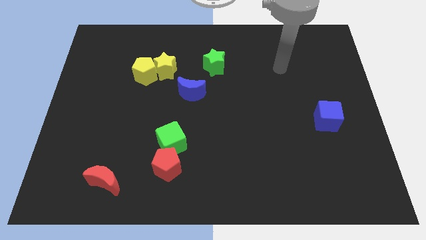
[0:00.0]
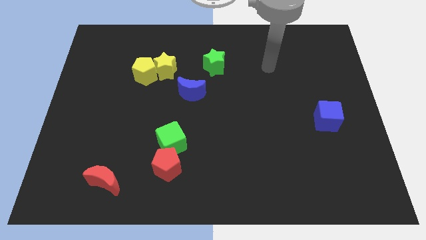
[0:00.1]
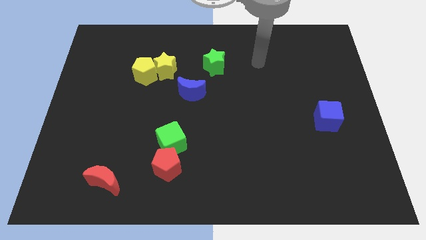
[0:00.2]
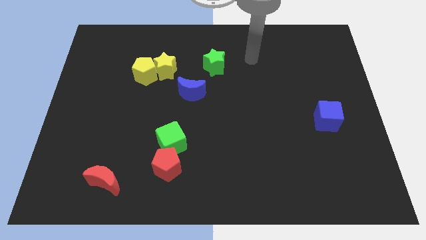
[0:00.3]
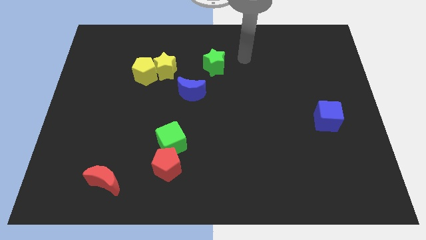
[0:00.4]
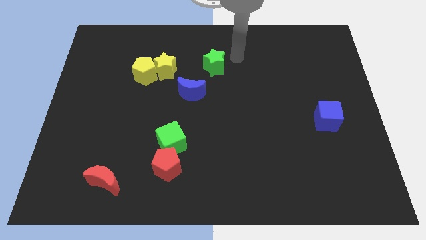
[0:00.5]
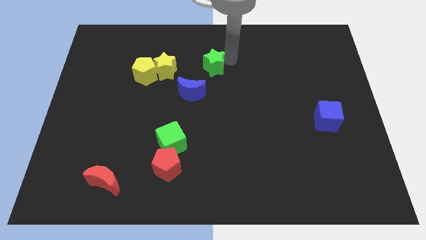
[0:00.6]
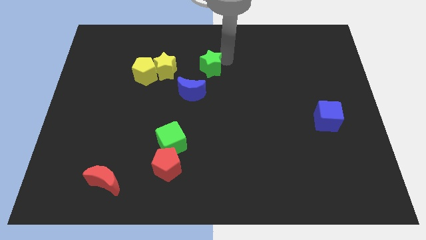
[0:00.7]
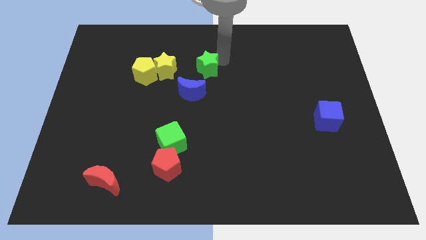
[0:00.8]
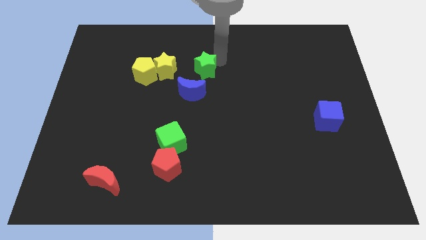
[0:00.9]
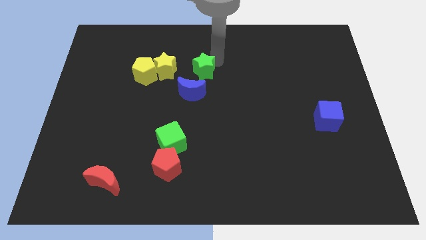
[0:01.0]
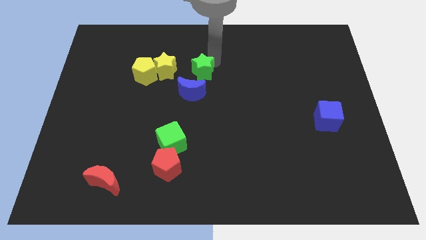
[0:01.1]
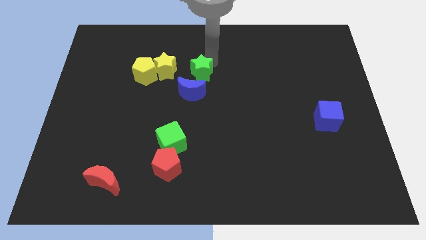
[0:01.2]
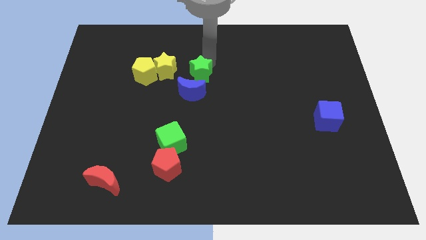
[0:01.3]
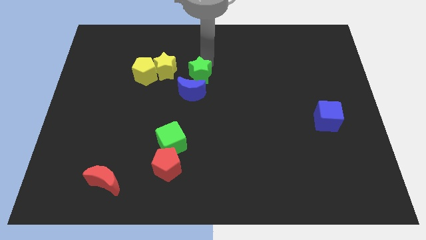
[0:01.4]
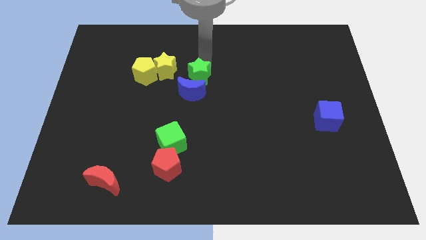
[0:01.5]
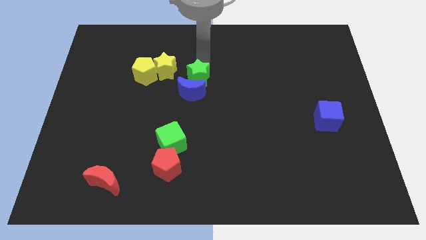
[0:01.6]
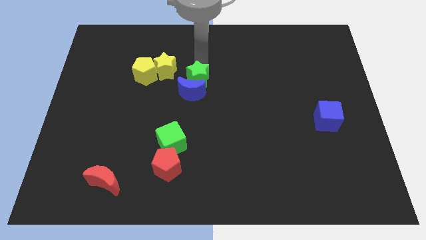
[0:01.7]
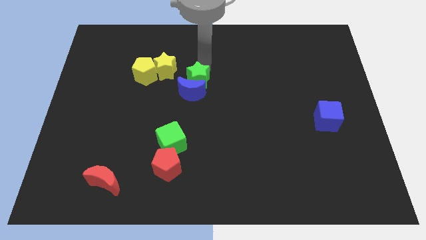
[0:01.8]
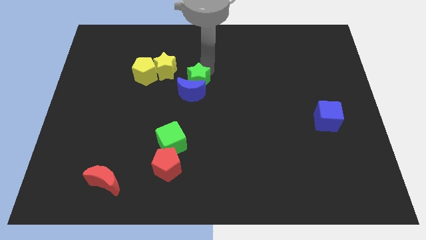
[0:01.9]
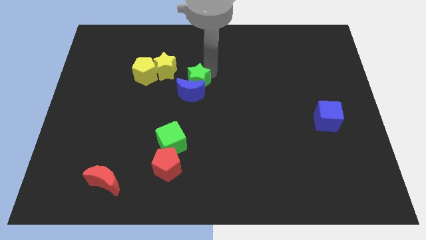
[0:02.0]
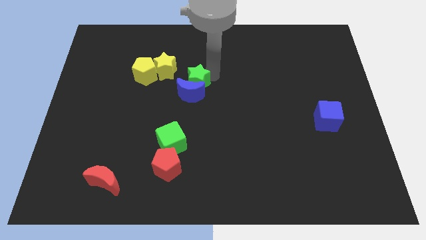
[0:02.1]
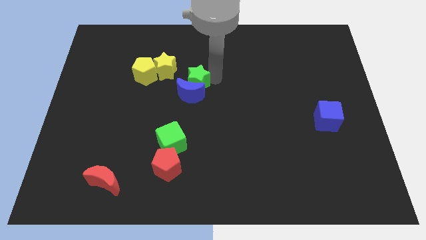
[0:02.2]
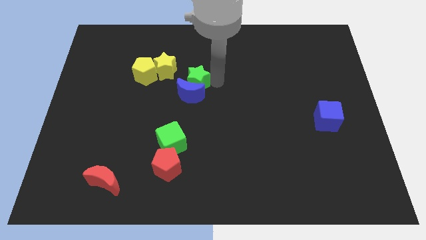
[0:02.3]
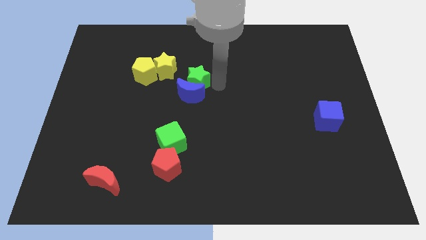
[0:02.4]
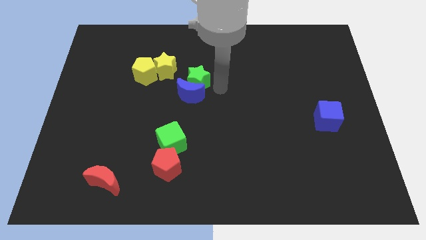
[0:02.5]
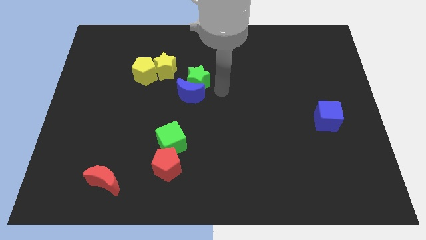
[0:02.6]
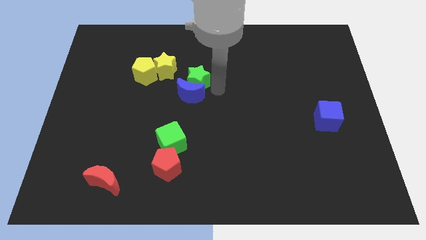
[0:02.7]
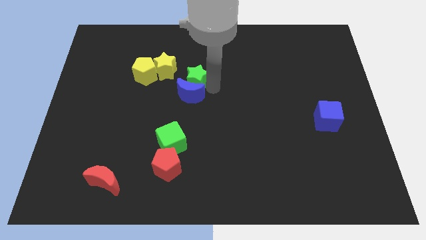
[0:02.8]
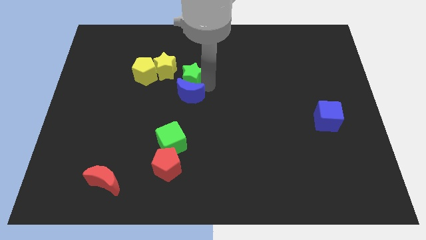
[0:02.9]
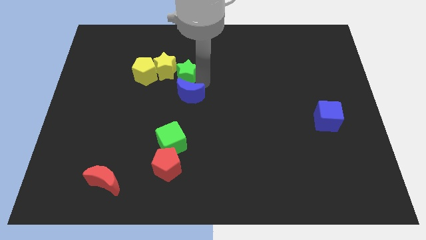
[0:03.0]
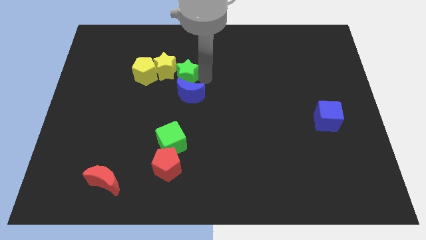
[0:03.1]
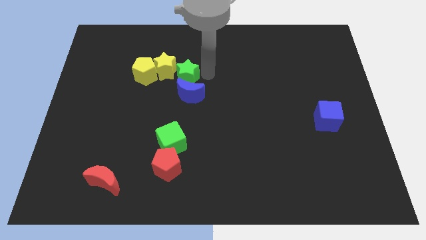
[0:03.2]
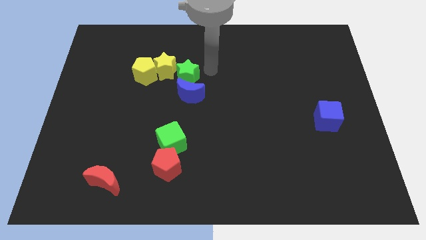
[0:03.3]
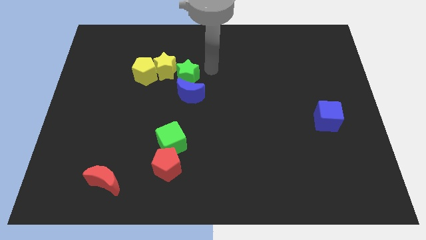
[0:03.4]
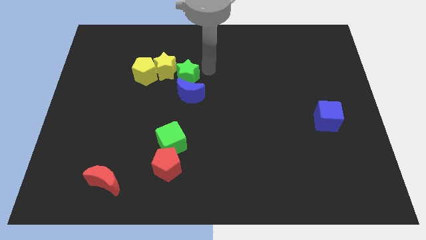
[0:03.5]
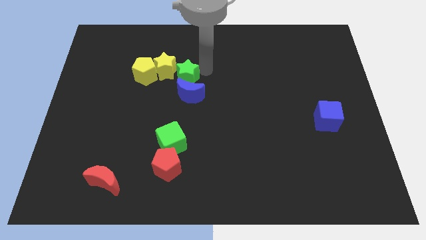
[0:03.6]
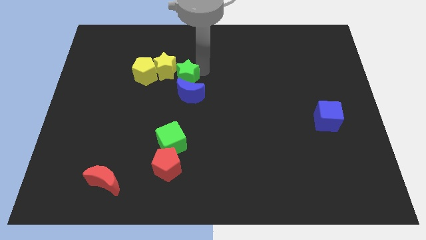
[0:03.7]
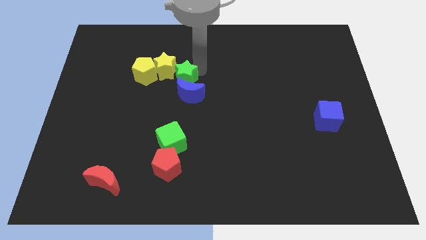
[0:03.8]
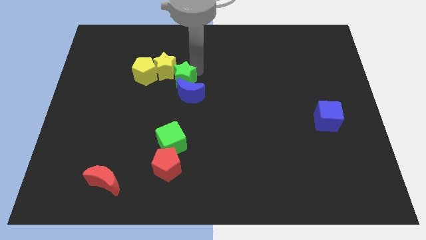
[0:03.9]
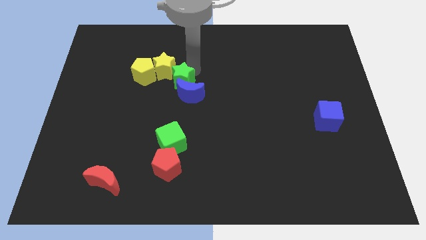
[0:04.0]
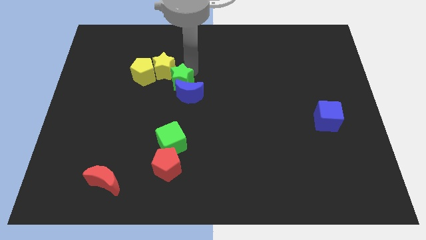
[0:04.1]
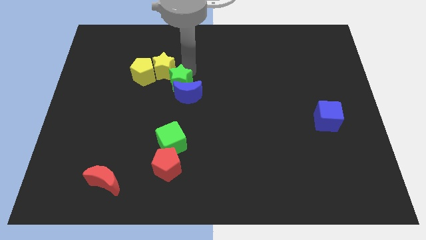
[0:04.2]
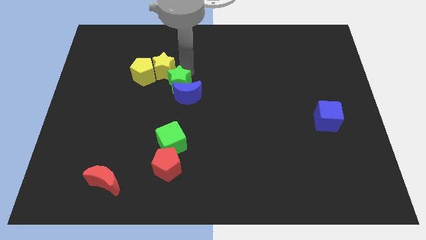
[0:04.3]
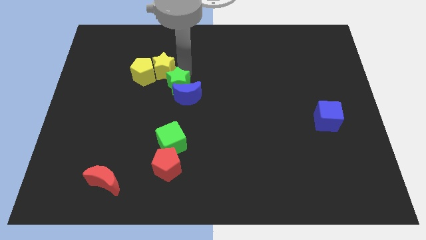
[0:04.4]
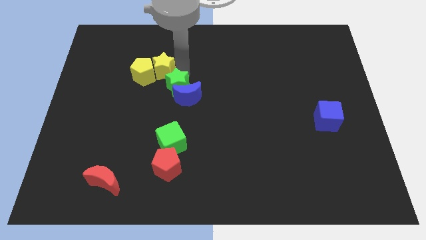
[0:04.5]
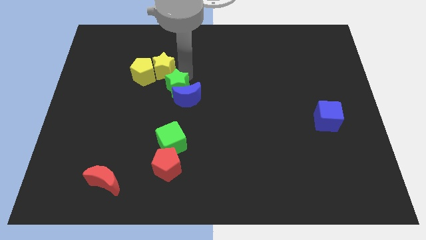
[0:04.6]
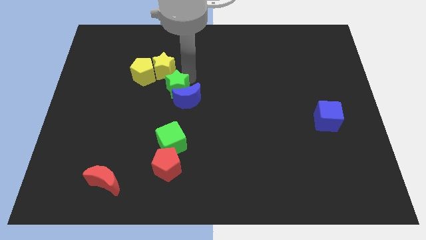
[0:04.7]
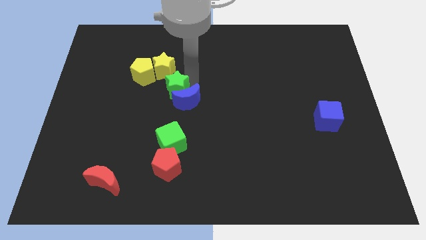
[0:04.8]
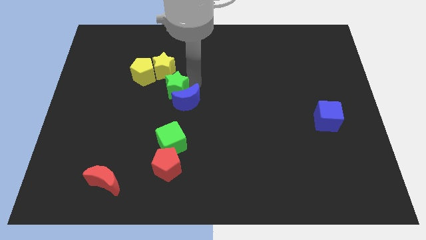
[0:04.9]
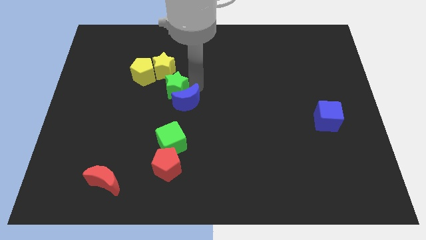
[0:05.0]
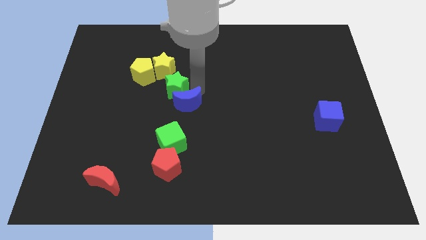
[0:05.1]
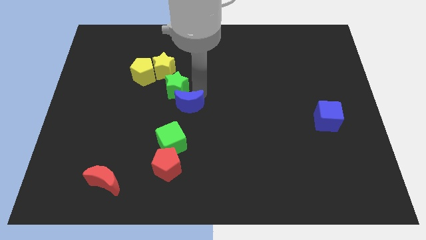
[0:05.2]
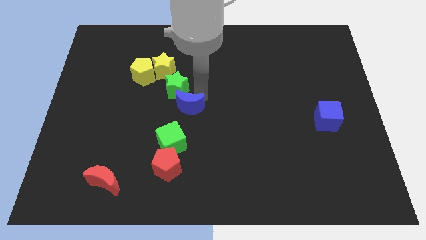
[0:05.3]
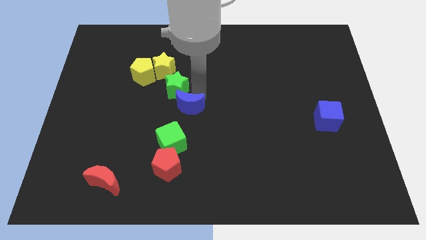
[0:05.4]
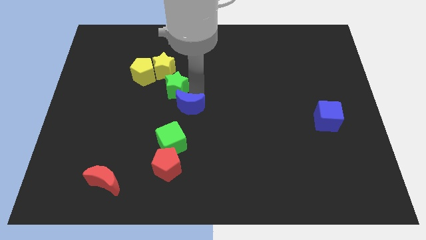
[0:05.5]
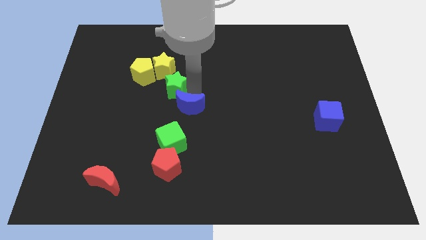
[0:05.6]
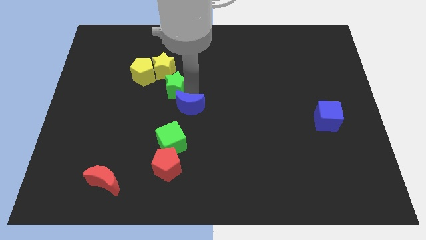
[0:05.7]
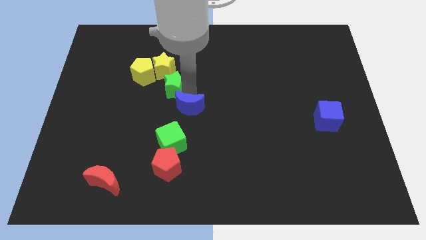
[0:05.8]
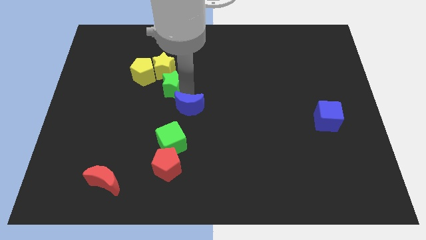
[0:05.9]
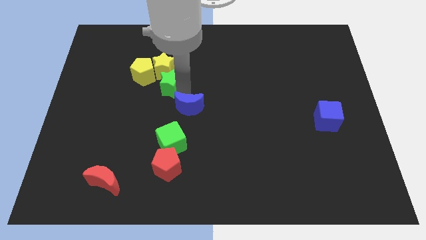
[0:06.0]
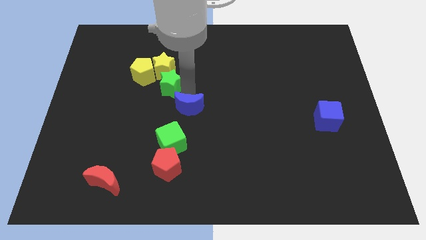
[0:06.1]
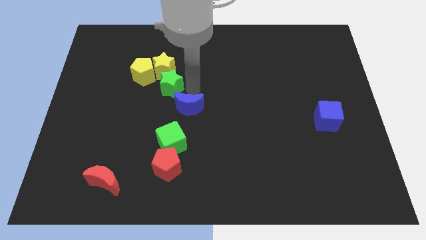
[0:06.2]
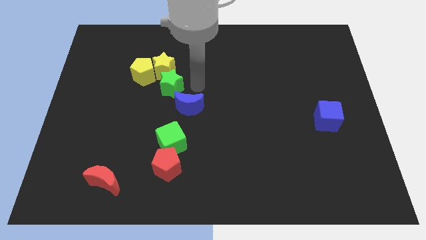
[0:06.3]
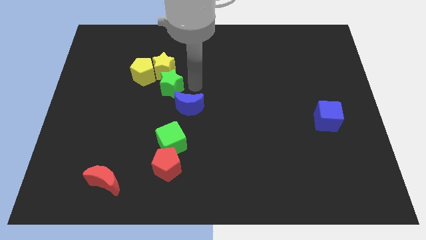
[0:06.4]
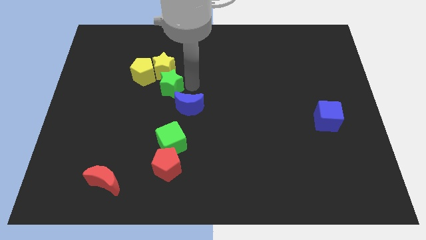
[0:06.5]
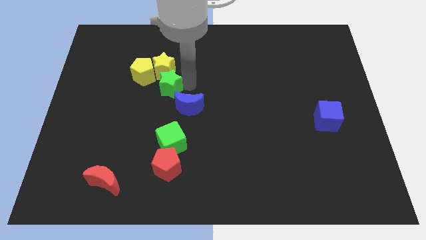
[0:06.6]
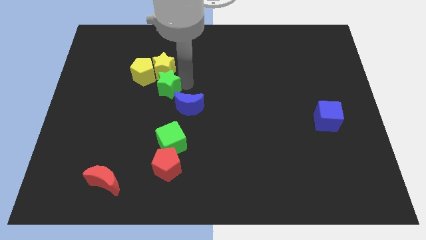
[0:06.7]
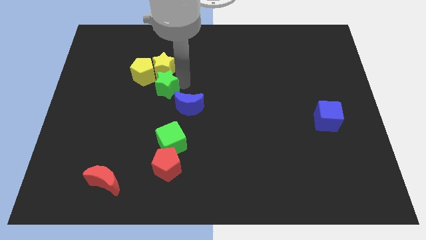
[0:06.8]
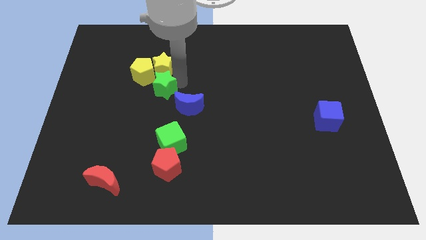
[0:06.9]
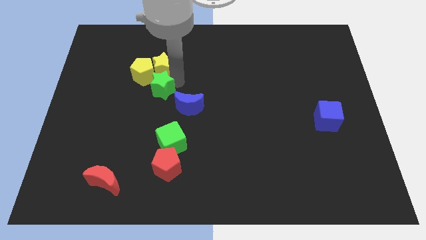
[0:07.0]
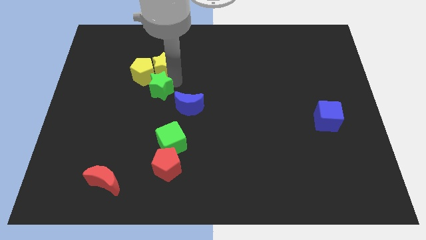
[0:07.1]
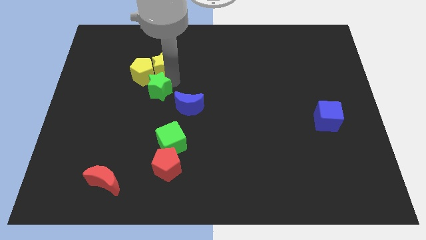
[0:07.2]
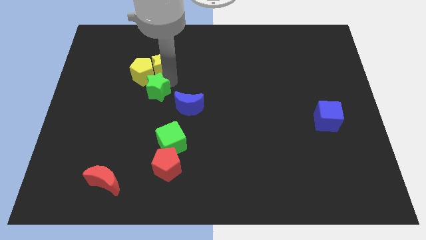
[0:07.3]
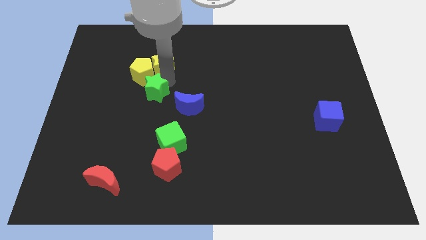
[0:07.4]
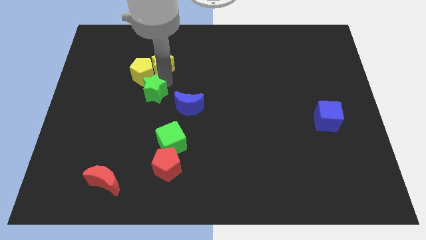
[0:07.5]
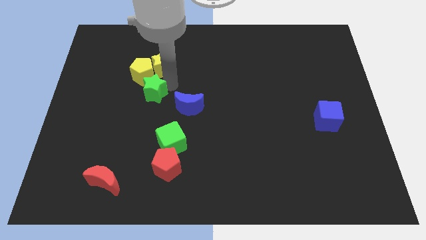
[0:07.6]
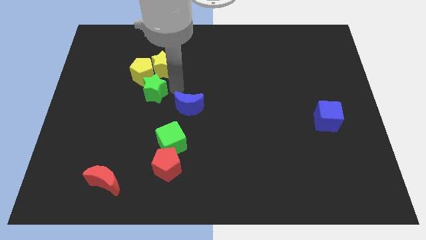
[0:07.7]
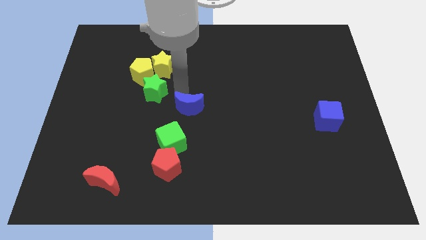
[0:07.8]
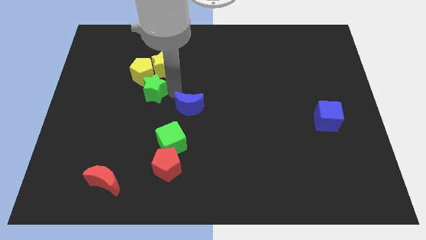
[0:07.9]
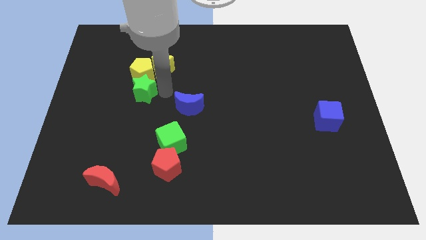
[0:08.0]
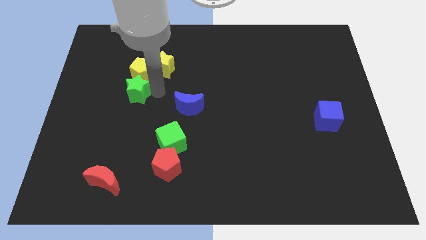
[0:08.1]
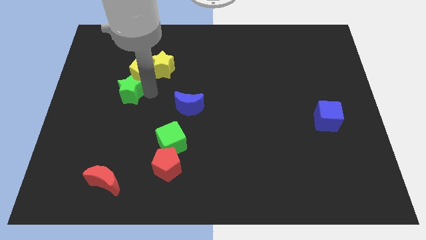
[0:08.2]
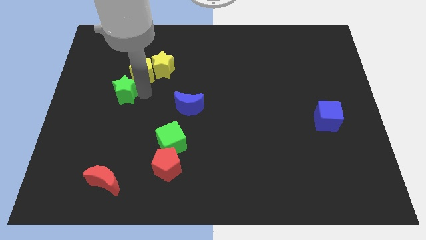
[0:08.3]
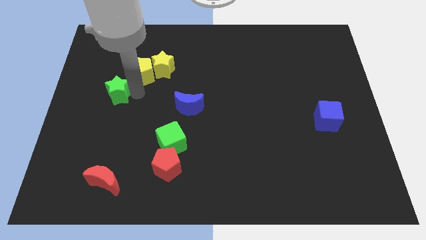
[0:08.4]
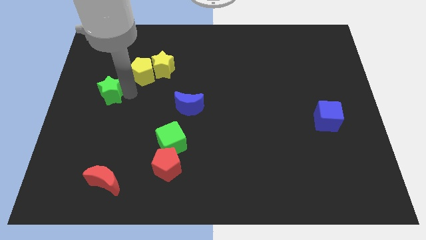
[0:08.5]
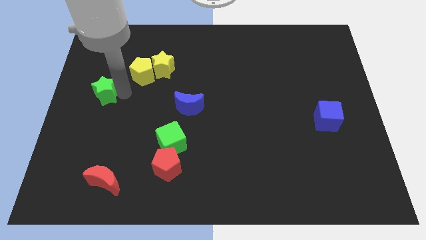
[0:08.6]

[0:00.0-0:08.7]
push the green star to the center left
